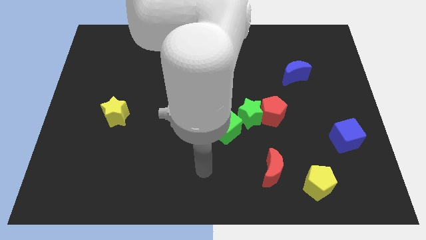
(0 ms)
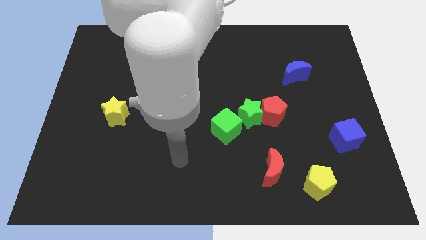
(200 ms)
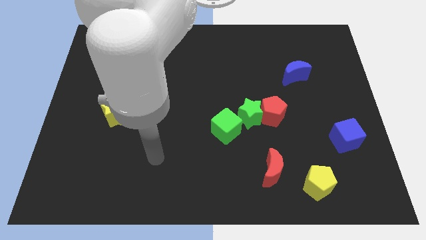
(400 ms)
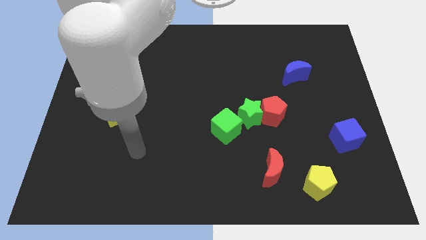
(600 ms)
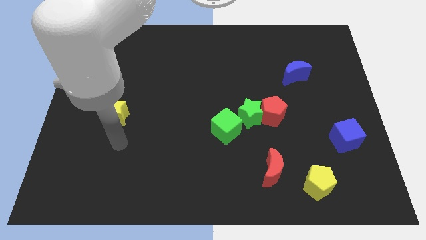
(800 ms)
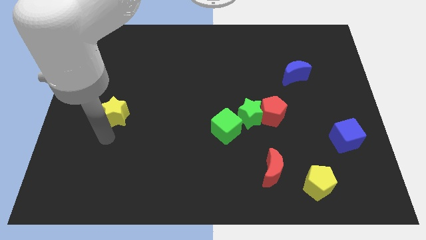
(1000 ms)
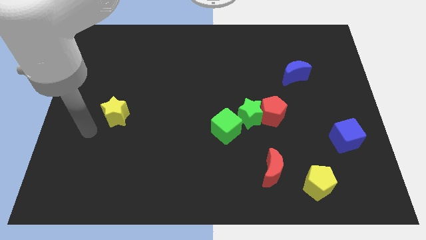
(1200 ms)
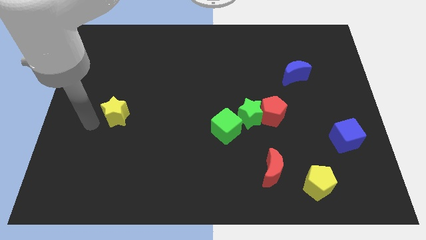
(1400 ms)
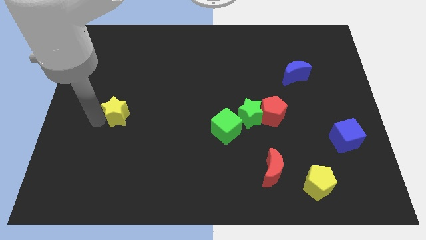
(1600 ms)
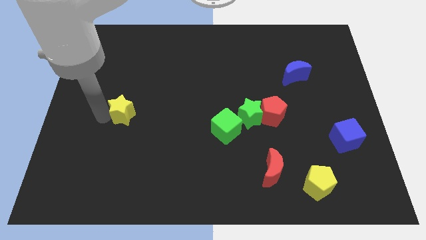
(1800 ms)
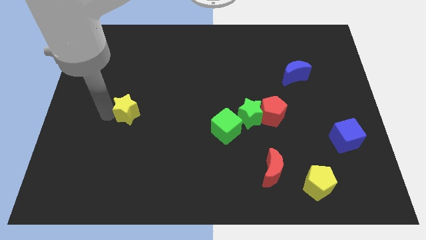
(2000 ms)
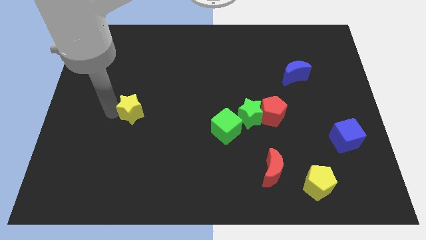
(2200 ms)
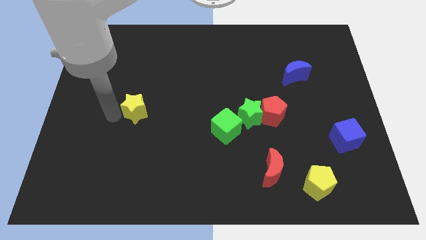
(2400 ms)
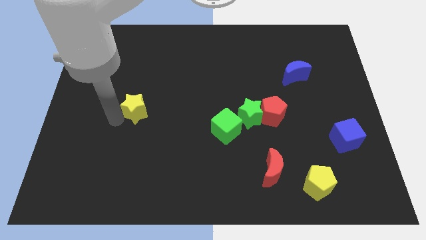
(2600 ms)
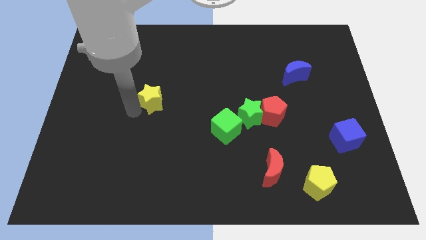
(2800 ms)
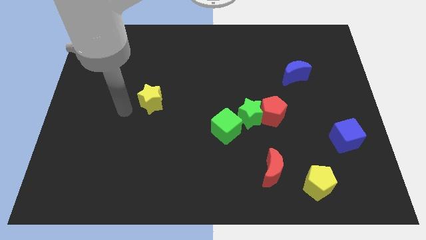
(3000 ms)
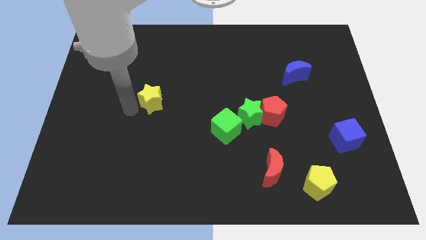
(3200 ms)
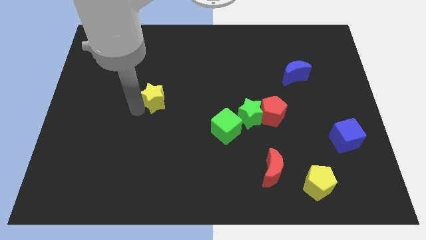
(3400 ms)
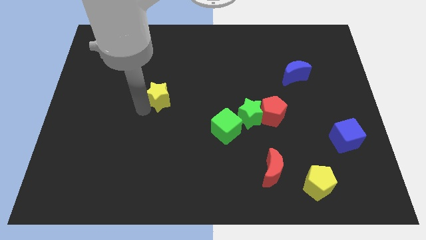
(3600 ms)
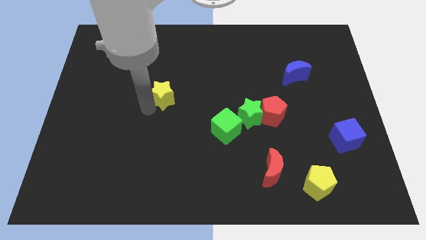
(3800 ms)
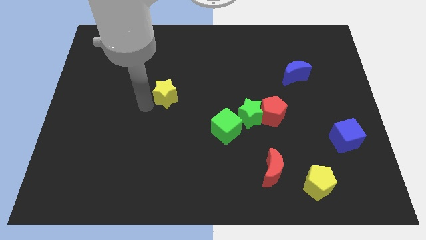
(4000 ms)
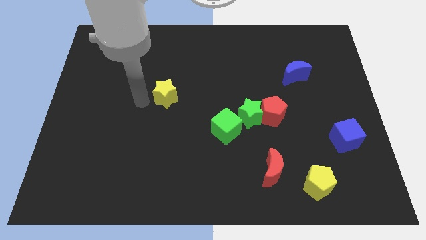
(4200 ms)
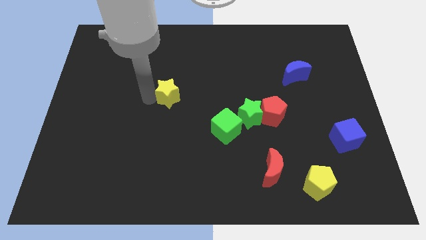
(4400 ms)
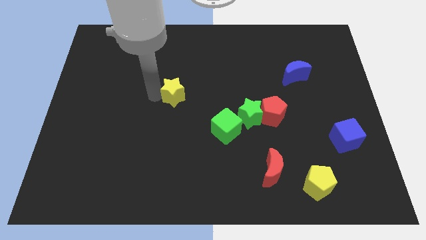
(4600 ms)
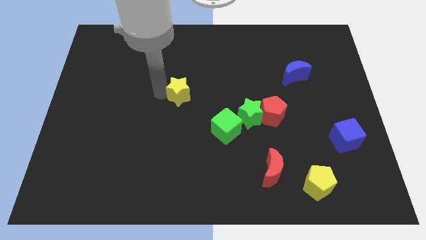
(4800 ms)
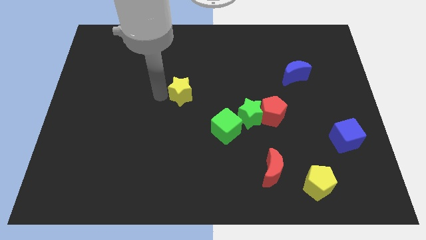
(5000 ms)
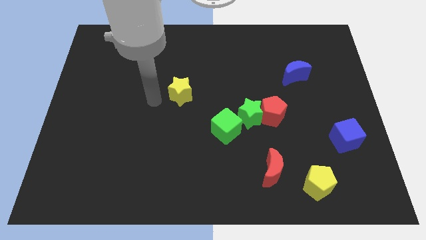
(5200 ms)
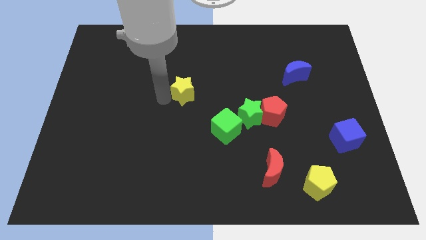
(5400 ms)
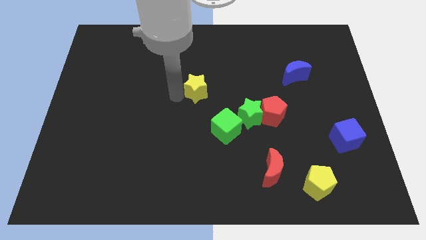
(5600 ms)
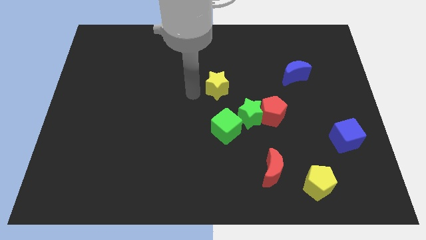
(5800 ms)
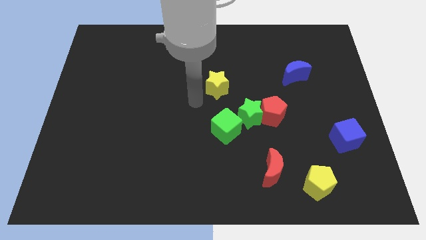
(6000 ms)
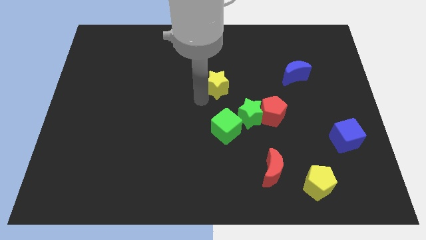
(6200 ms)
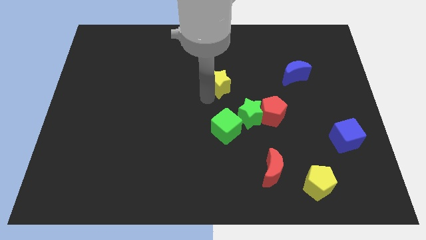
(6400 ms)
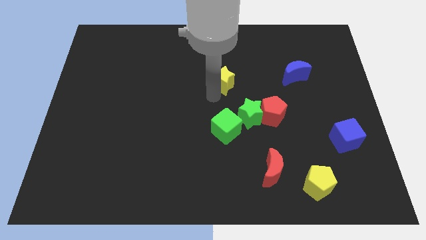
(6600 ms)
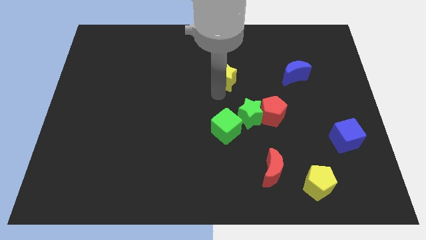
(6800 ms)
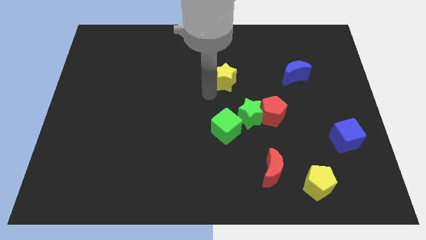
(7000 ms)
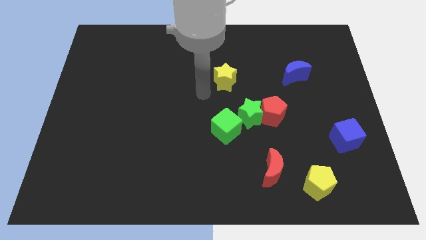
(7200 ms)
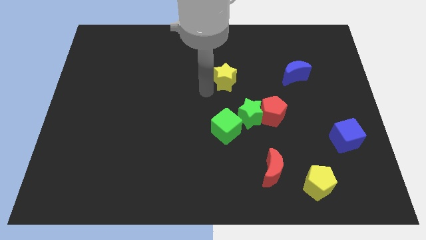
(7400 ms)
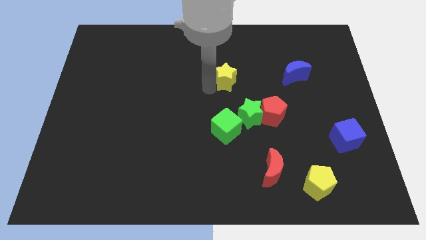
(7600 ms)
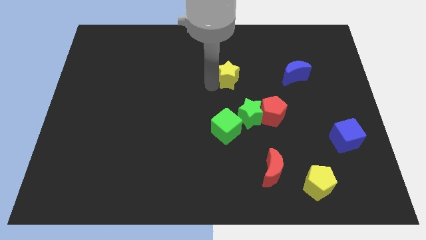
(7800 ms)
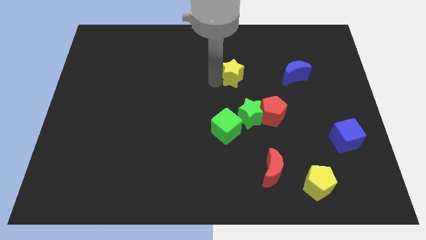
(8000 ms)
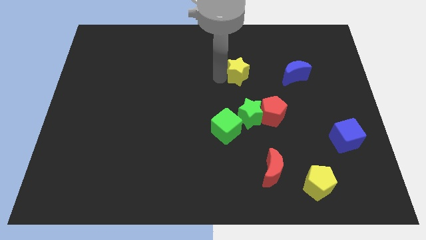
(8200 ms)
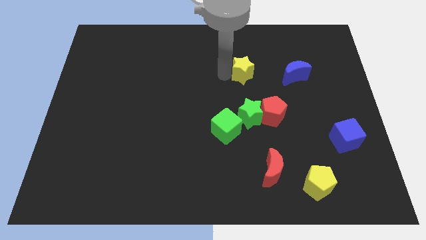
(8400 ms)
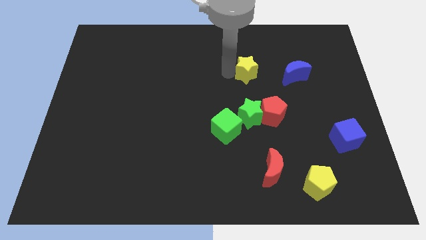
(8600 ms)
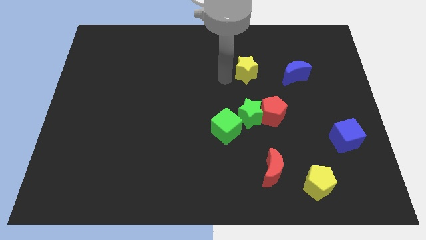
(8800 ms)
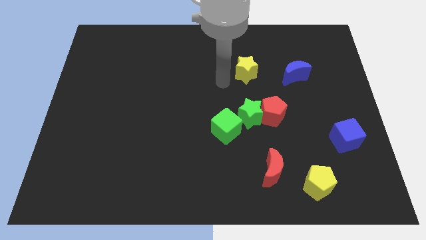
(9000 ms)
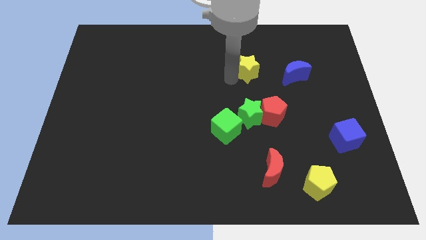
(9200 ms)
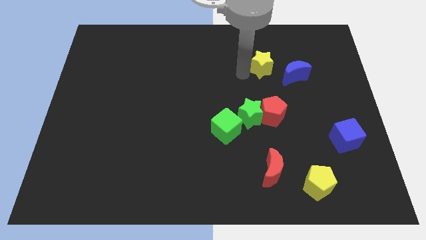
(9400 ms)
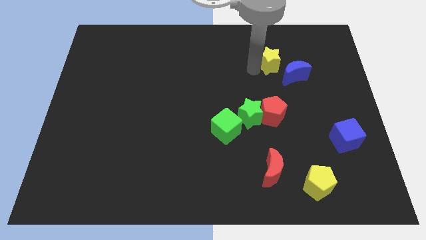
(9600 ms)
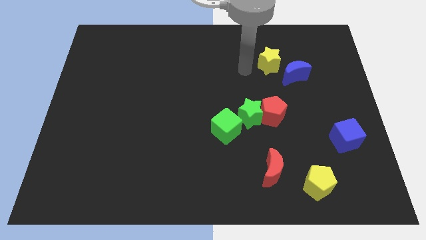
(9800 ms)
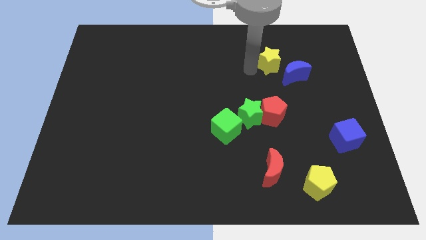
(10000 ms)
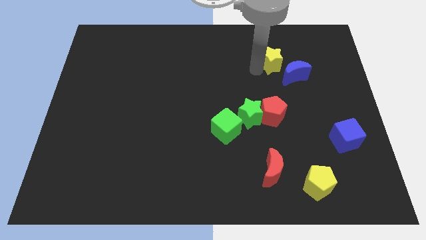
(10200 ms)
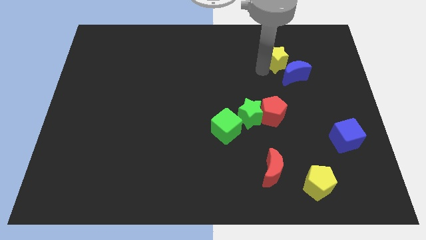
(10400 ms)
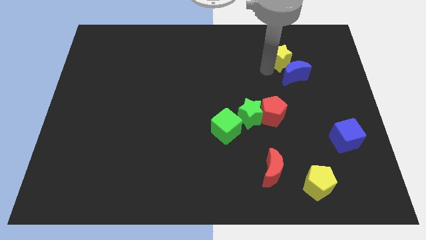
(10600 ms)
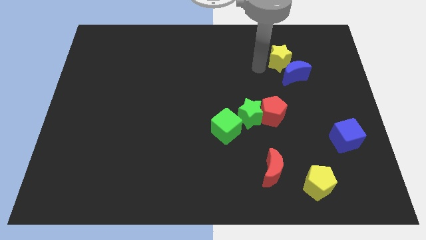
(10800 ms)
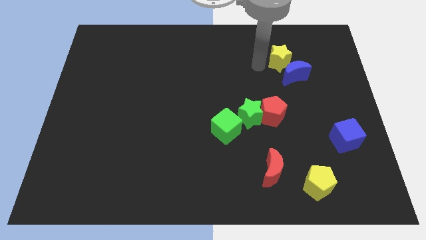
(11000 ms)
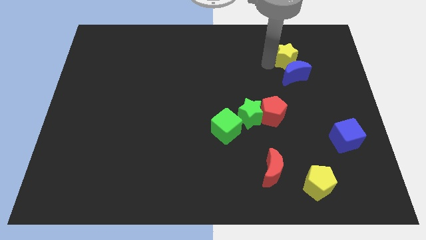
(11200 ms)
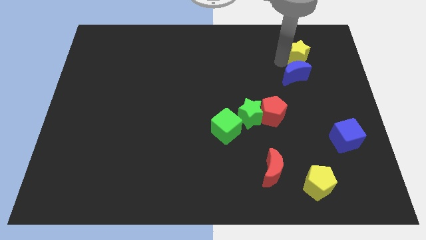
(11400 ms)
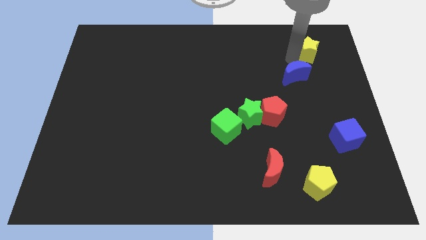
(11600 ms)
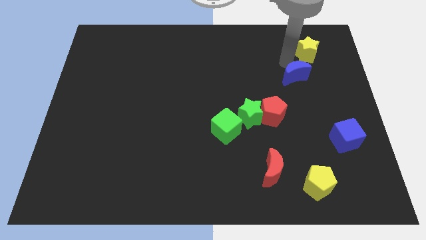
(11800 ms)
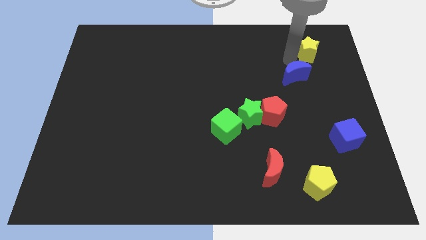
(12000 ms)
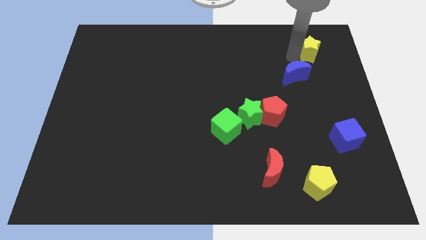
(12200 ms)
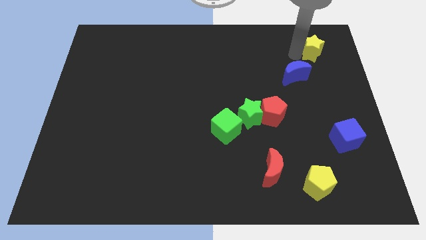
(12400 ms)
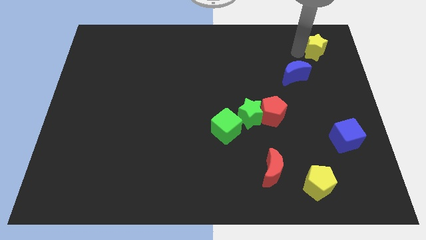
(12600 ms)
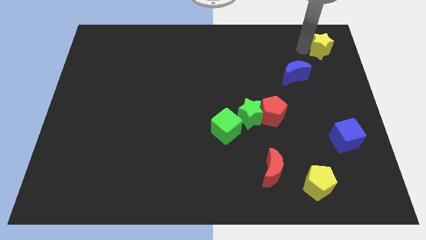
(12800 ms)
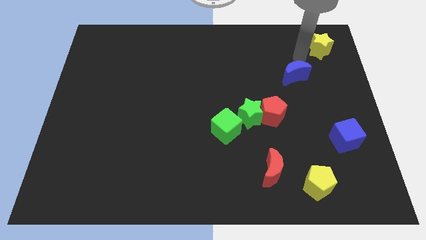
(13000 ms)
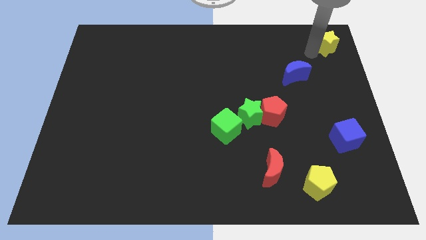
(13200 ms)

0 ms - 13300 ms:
slide the yellow star to the top right corner
